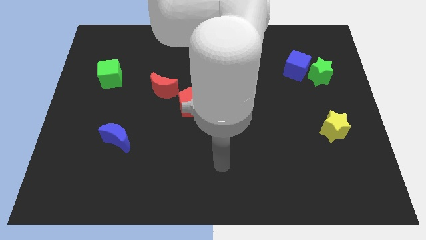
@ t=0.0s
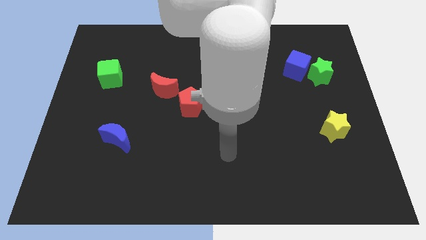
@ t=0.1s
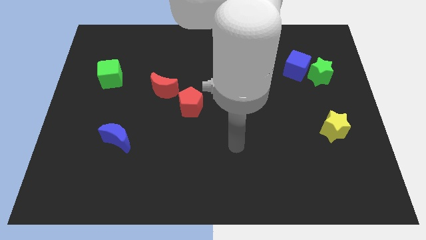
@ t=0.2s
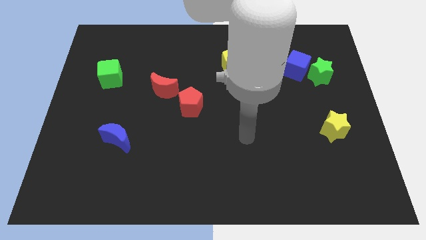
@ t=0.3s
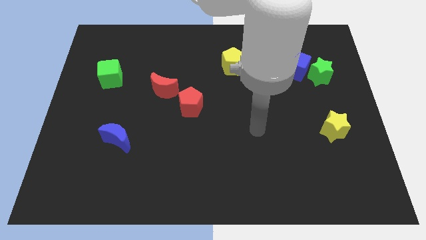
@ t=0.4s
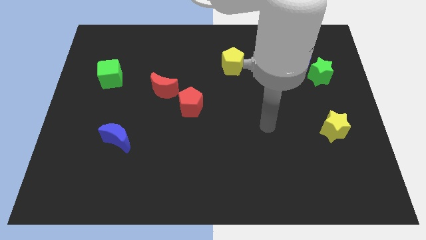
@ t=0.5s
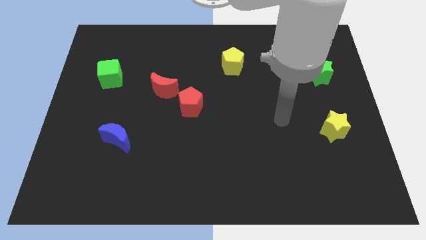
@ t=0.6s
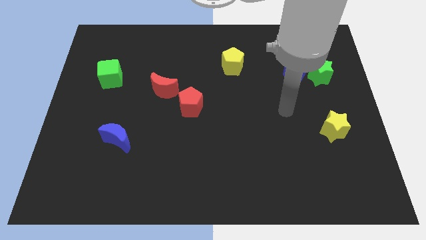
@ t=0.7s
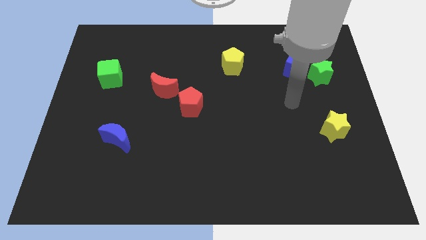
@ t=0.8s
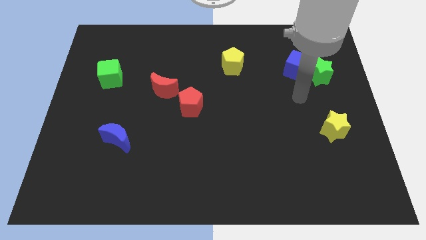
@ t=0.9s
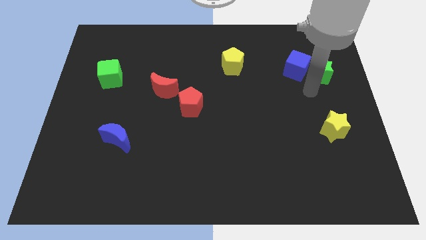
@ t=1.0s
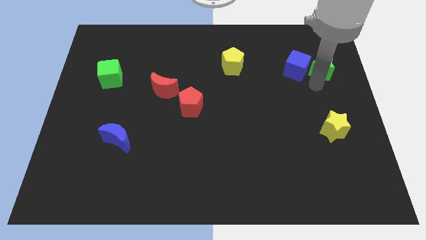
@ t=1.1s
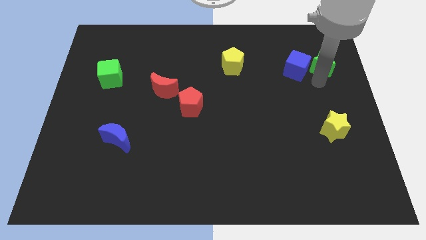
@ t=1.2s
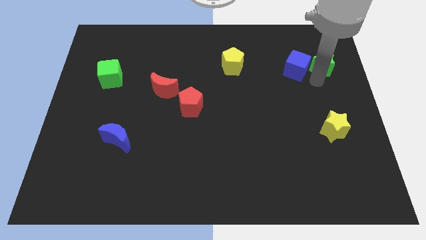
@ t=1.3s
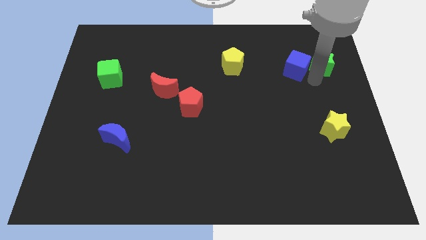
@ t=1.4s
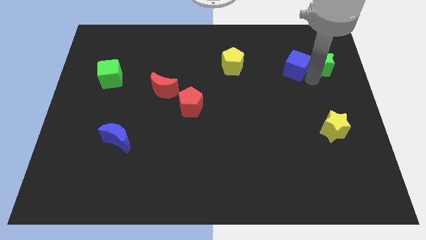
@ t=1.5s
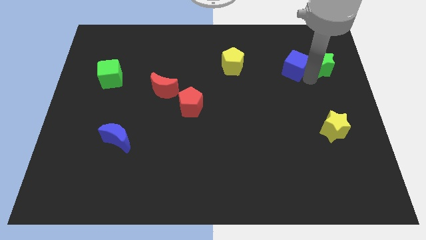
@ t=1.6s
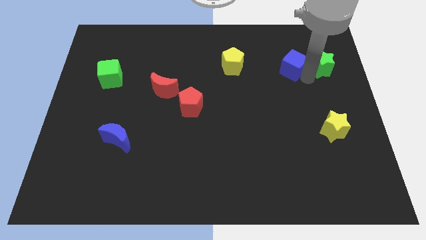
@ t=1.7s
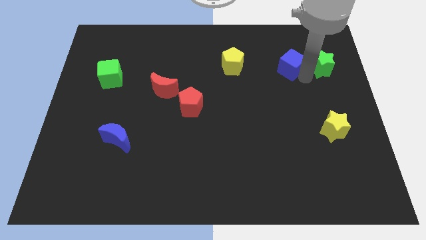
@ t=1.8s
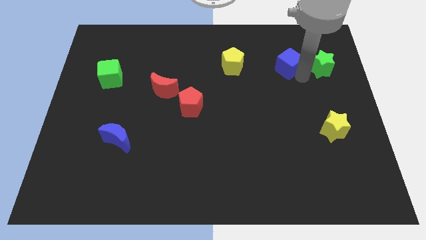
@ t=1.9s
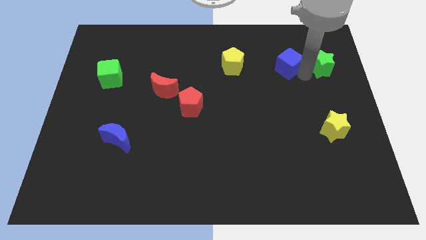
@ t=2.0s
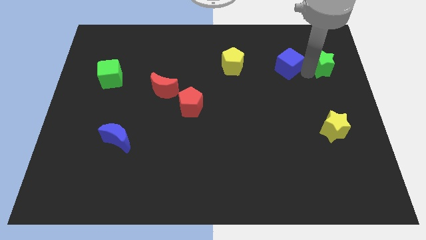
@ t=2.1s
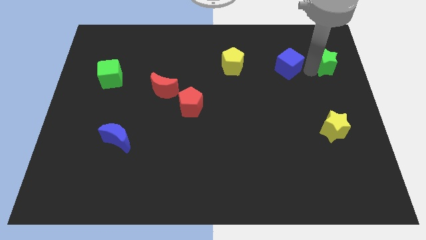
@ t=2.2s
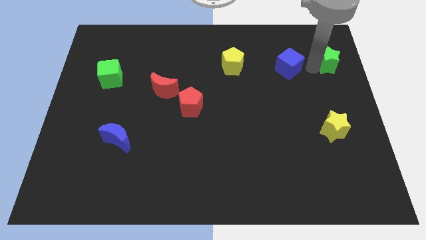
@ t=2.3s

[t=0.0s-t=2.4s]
move the blue cube away from the green star

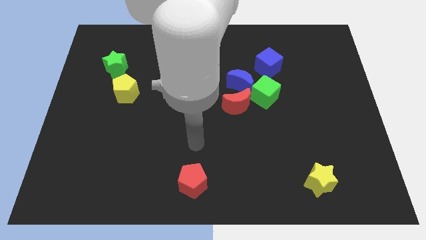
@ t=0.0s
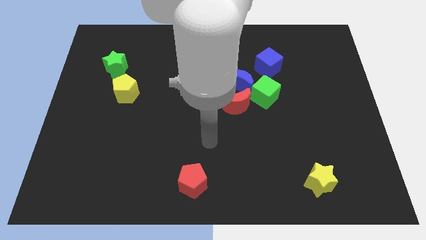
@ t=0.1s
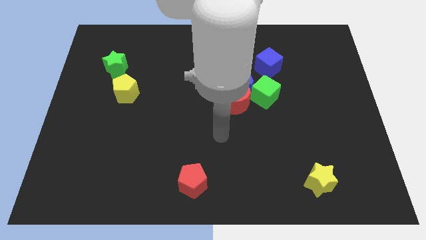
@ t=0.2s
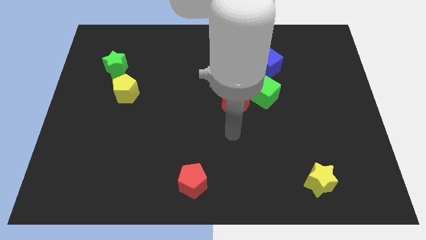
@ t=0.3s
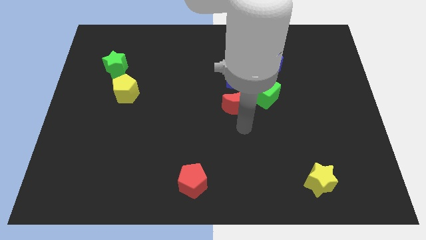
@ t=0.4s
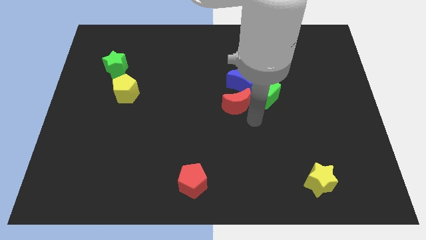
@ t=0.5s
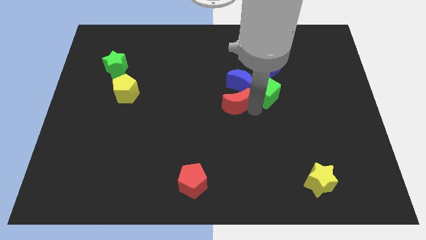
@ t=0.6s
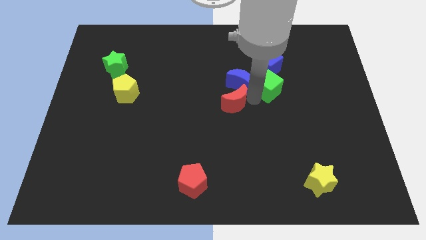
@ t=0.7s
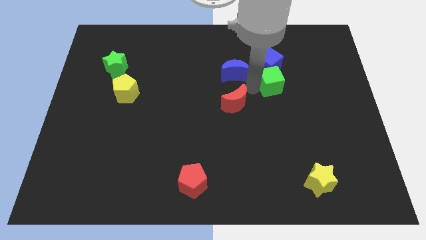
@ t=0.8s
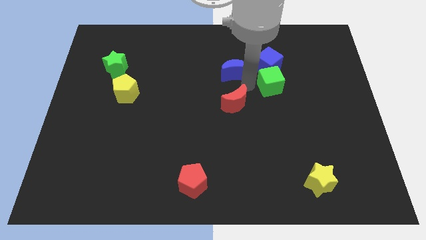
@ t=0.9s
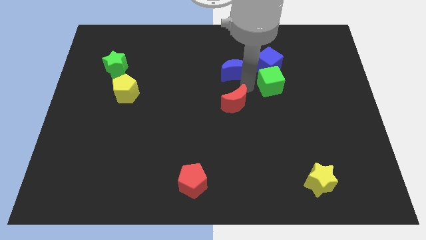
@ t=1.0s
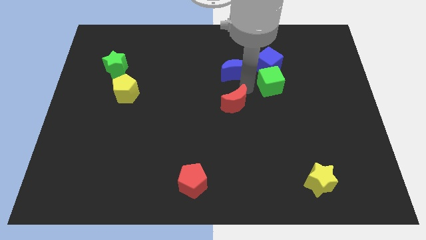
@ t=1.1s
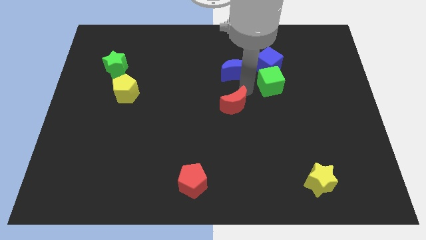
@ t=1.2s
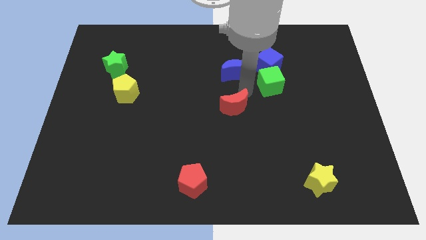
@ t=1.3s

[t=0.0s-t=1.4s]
separate the red moon from the blue moon and green cube

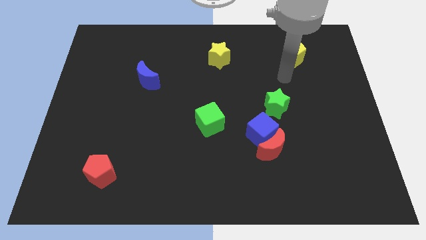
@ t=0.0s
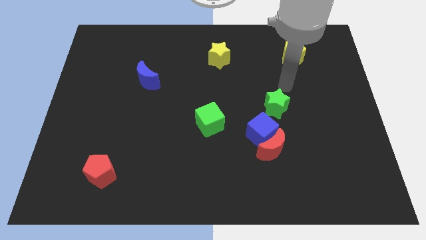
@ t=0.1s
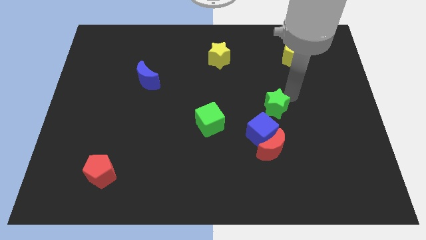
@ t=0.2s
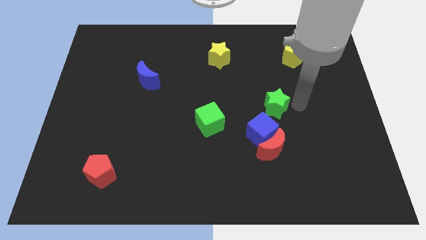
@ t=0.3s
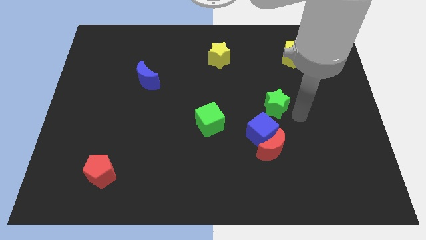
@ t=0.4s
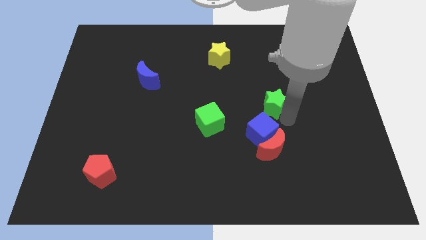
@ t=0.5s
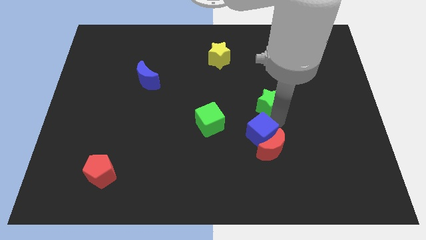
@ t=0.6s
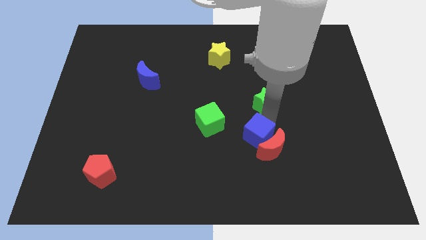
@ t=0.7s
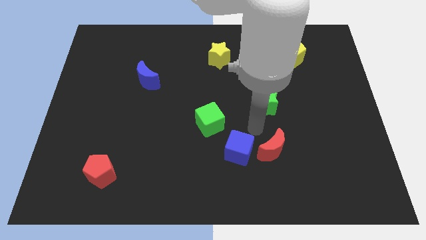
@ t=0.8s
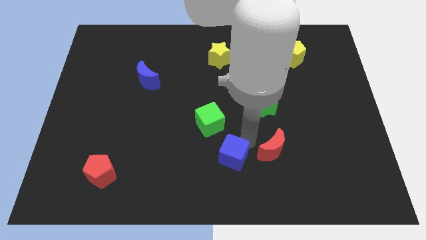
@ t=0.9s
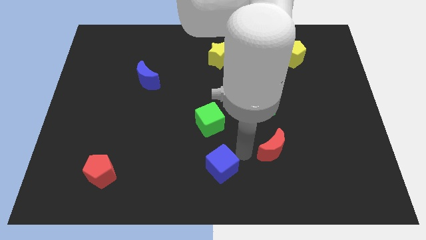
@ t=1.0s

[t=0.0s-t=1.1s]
move the red moon away from the blue cube

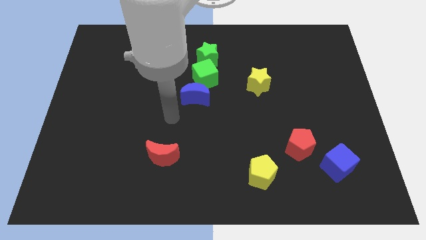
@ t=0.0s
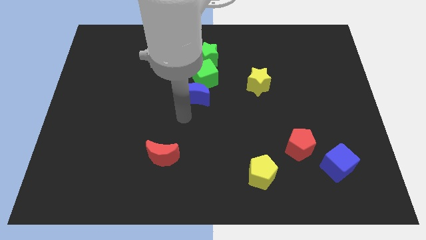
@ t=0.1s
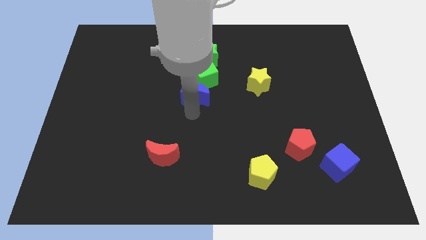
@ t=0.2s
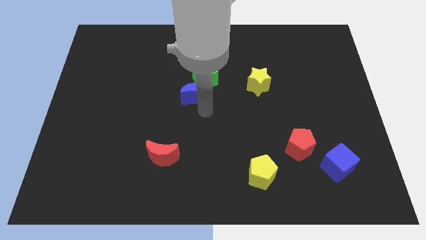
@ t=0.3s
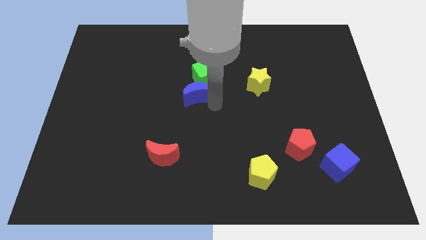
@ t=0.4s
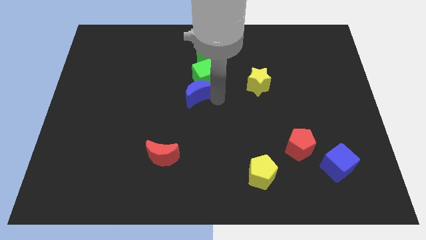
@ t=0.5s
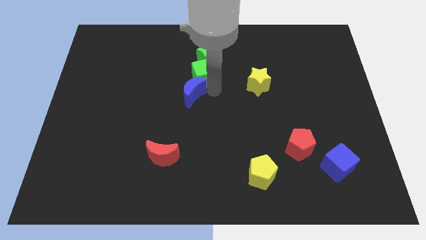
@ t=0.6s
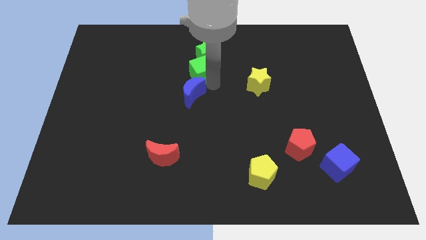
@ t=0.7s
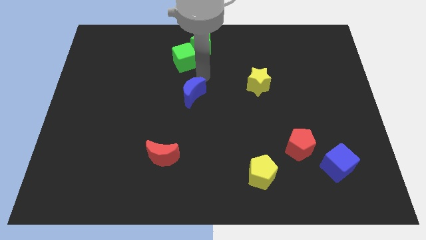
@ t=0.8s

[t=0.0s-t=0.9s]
move the blue moon away from the green cube

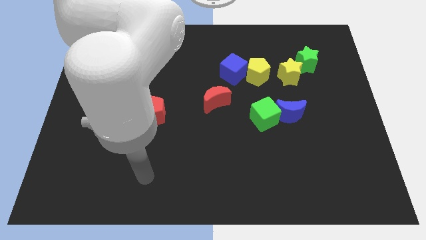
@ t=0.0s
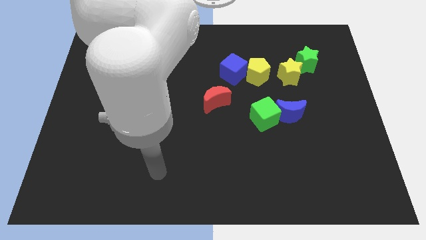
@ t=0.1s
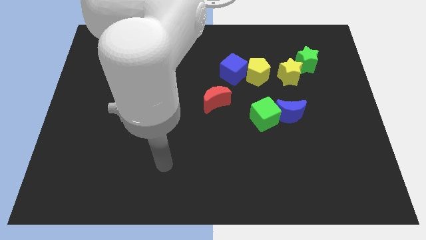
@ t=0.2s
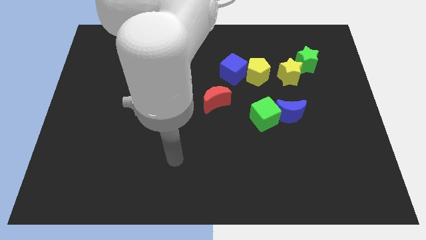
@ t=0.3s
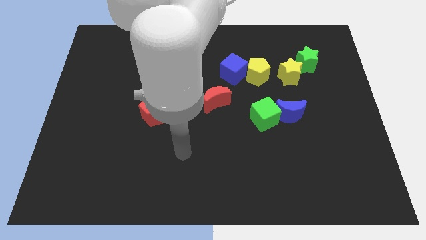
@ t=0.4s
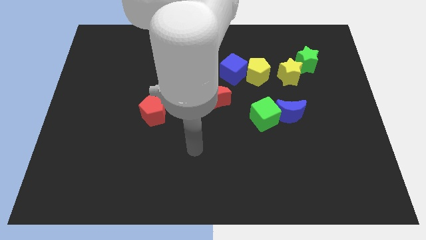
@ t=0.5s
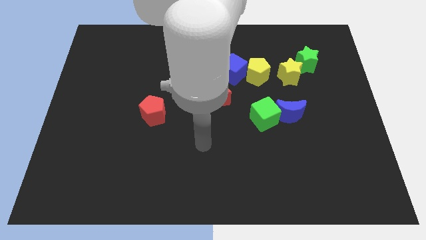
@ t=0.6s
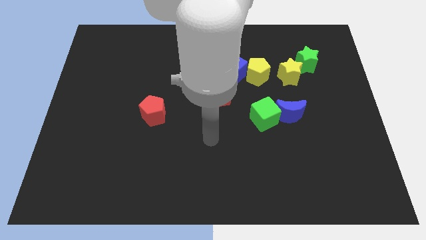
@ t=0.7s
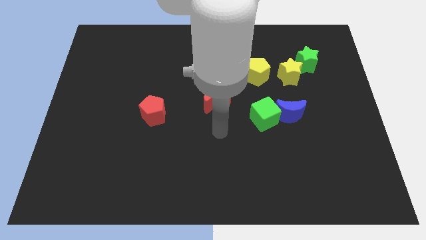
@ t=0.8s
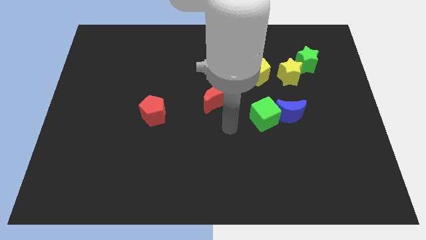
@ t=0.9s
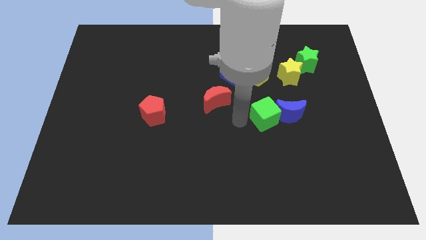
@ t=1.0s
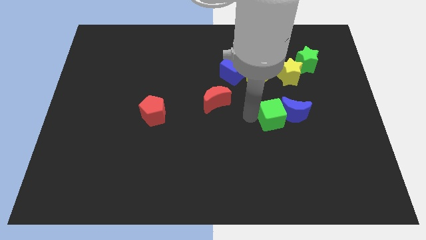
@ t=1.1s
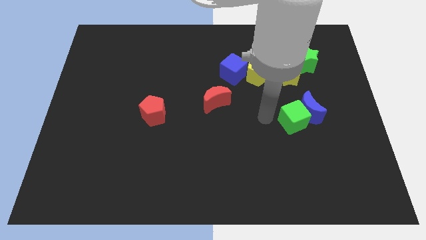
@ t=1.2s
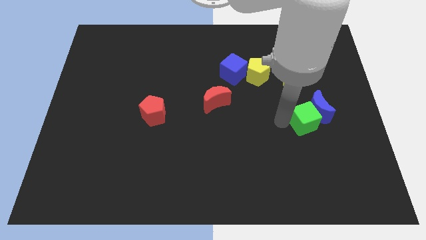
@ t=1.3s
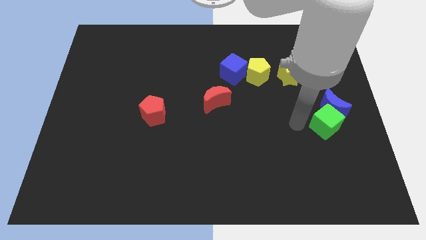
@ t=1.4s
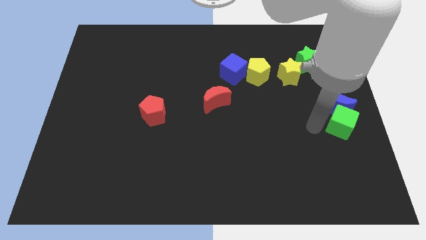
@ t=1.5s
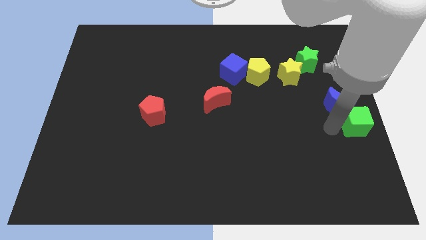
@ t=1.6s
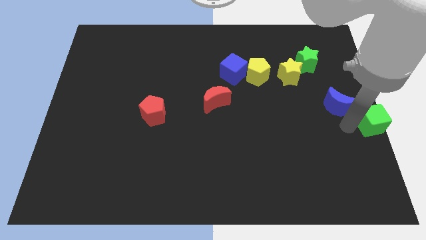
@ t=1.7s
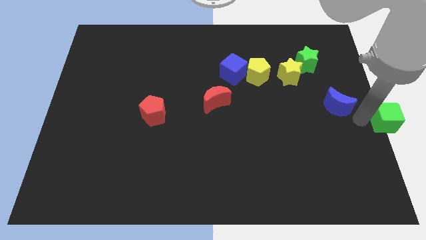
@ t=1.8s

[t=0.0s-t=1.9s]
pull the blue moon apart from the green cube

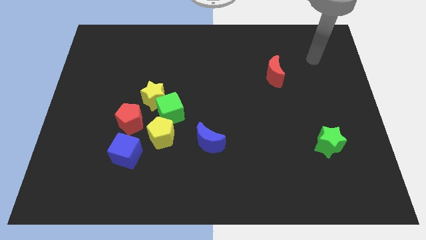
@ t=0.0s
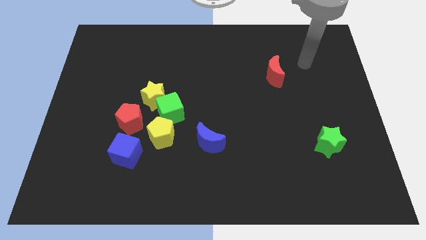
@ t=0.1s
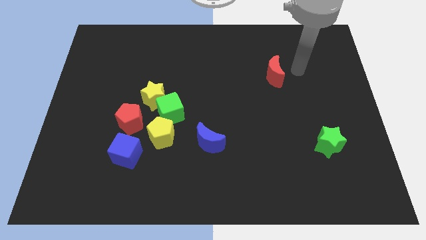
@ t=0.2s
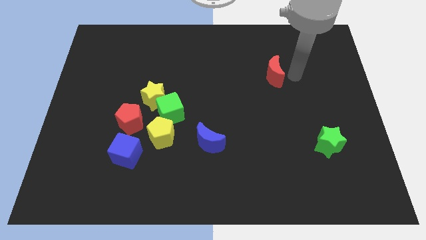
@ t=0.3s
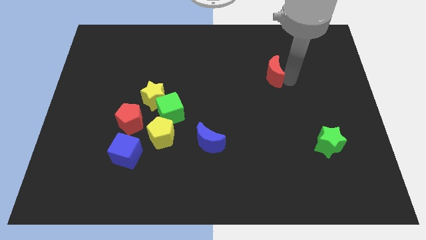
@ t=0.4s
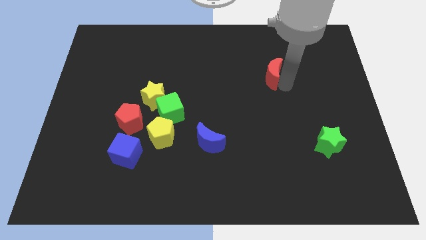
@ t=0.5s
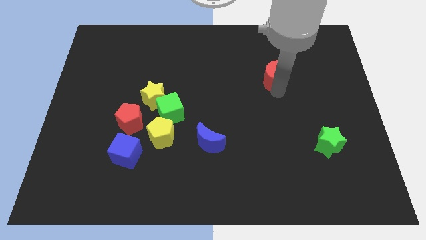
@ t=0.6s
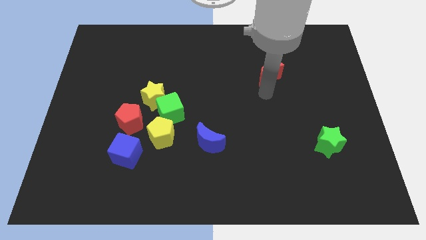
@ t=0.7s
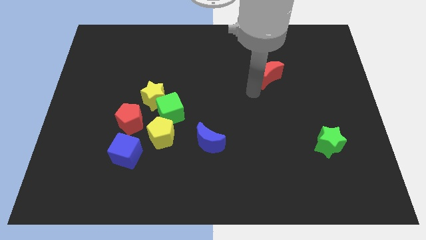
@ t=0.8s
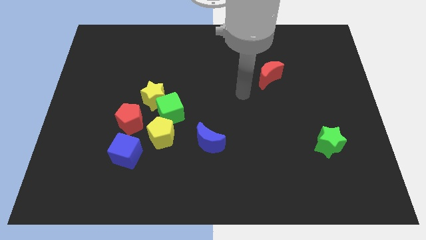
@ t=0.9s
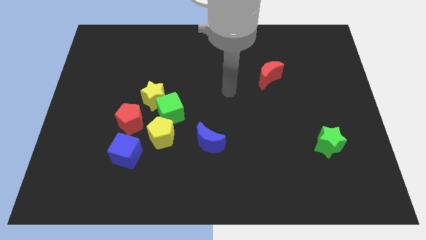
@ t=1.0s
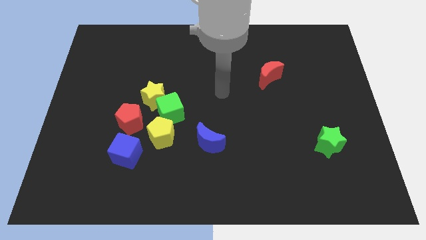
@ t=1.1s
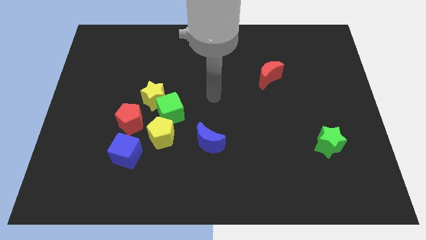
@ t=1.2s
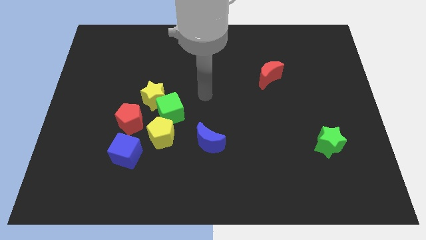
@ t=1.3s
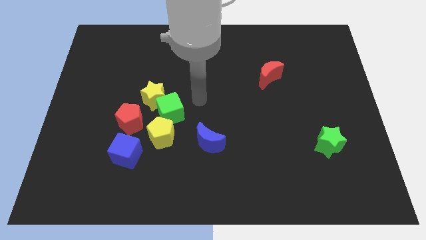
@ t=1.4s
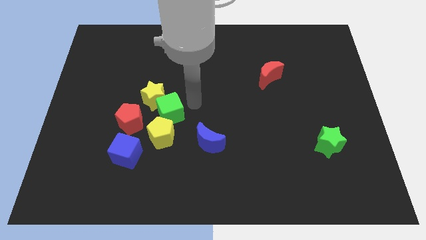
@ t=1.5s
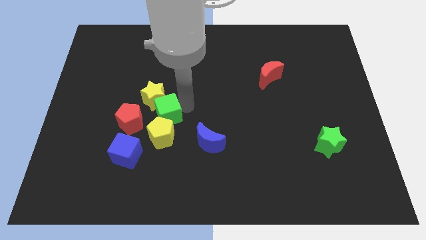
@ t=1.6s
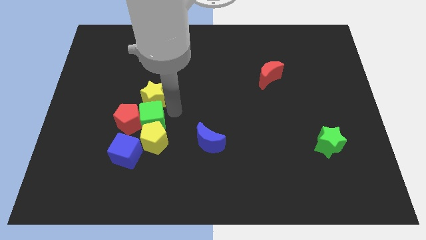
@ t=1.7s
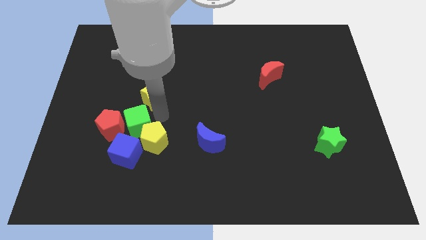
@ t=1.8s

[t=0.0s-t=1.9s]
separate the yellow star from the green cube and red pentagon
